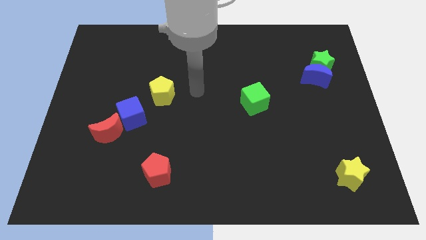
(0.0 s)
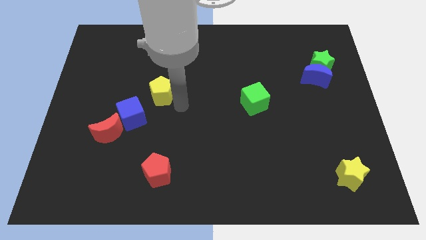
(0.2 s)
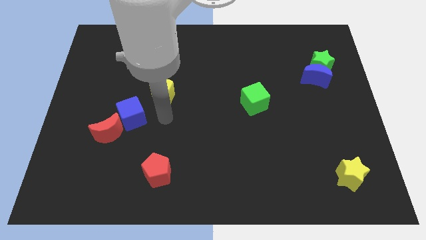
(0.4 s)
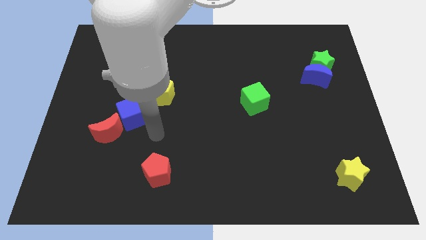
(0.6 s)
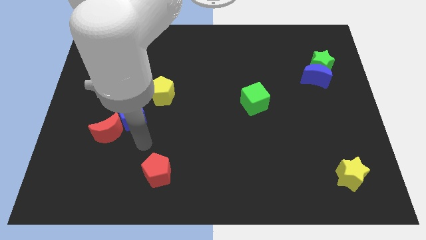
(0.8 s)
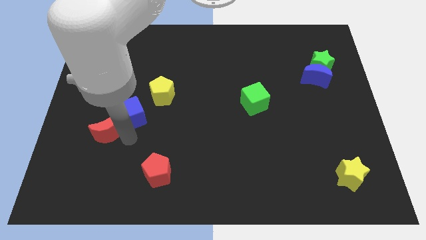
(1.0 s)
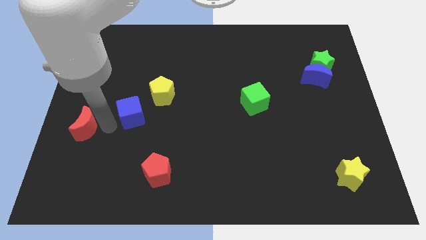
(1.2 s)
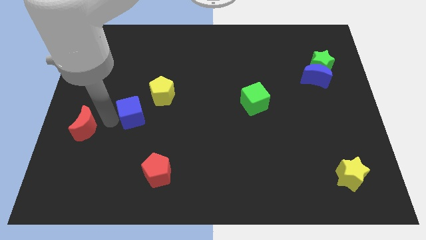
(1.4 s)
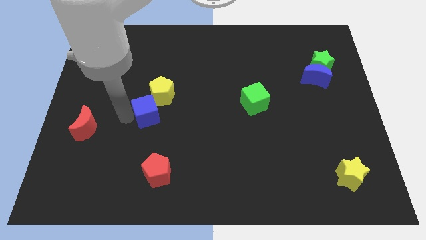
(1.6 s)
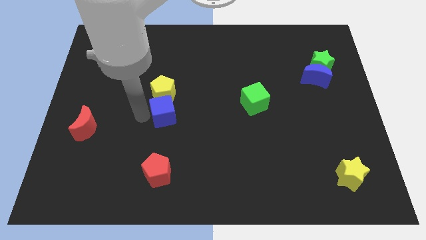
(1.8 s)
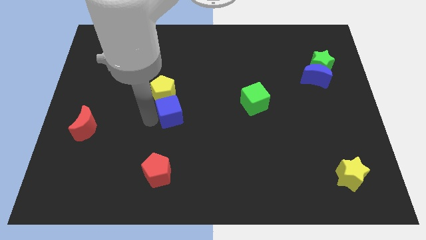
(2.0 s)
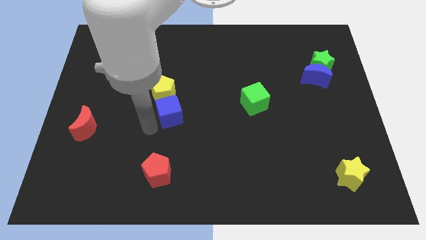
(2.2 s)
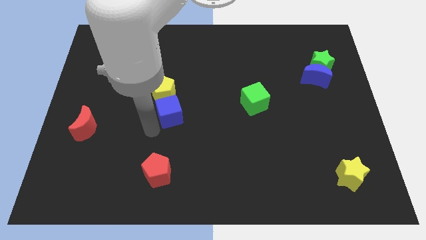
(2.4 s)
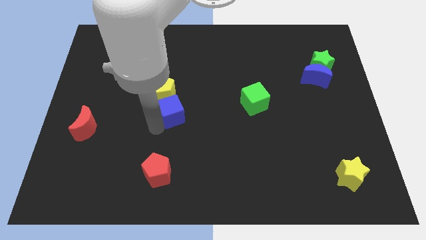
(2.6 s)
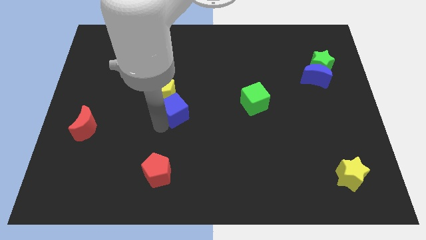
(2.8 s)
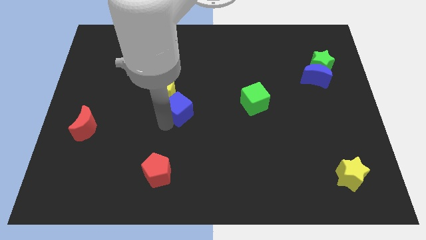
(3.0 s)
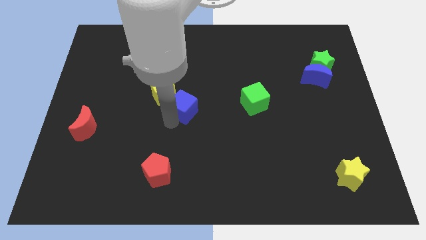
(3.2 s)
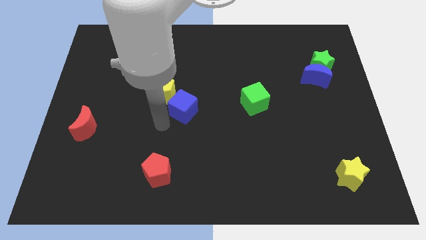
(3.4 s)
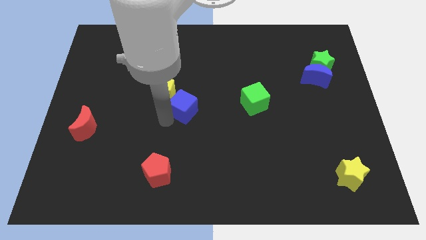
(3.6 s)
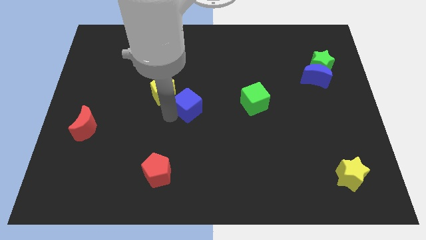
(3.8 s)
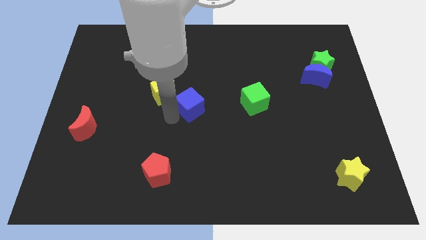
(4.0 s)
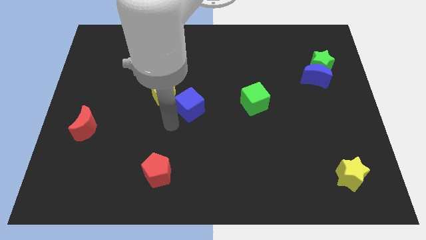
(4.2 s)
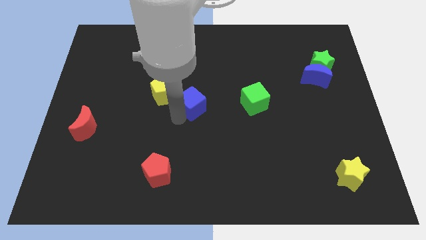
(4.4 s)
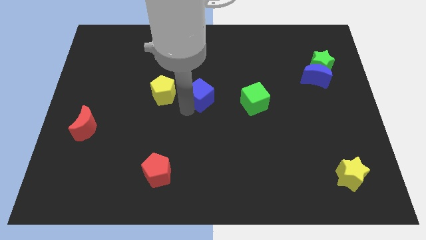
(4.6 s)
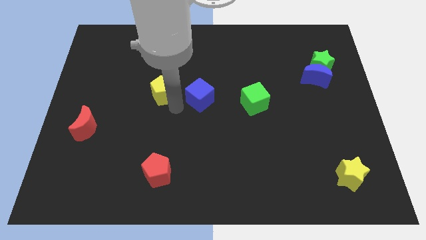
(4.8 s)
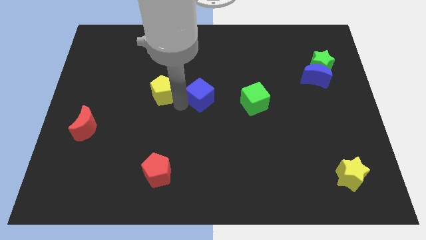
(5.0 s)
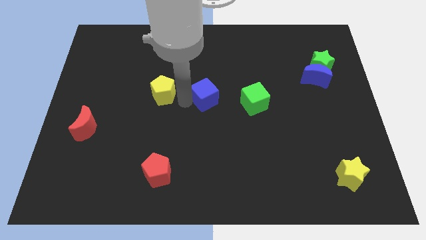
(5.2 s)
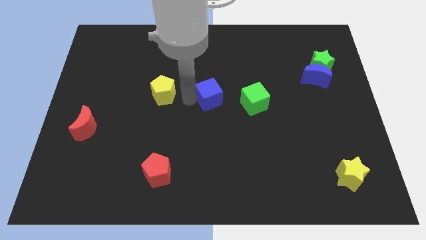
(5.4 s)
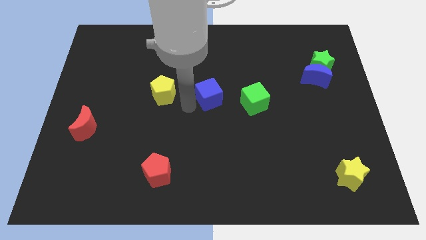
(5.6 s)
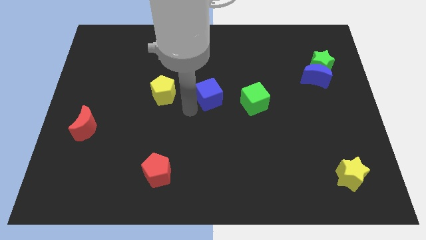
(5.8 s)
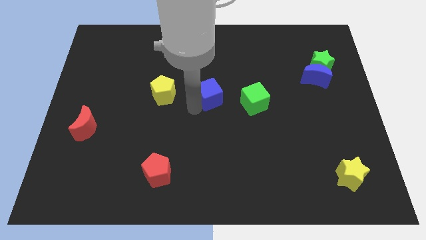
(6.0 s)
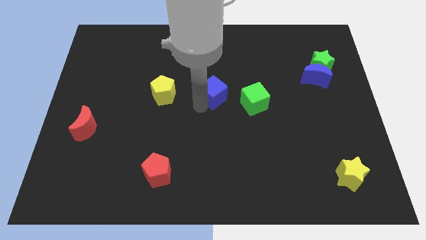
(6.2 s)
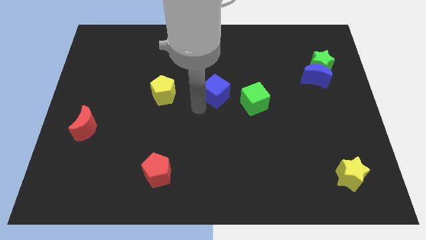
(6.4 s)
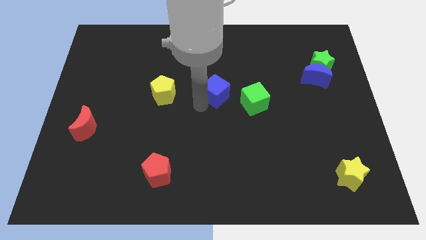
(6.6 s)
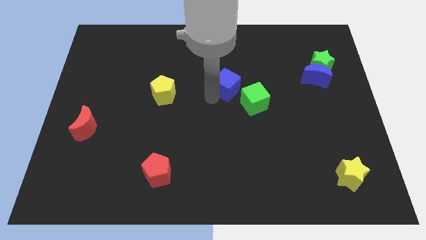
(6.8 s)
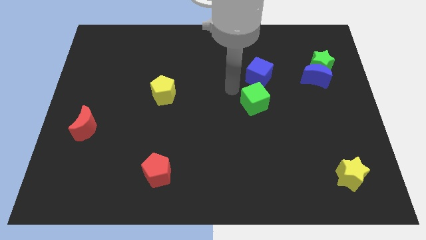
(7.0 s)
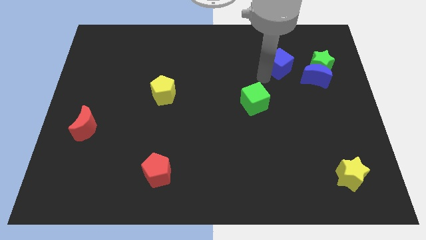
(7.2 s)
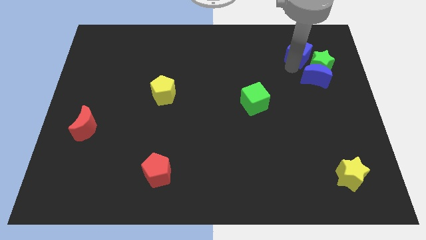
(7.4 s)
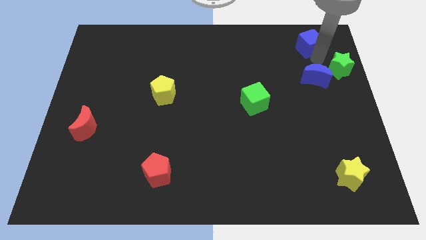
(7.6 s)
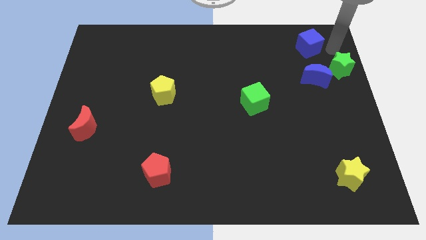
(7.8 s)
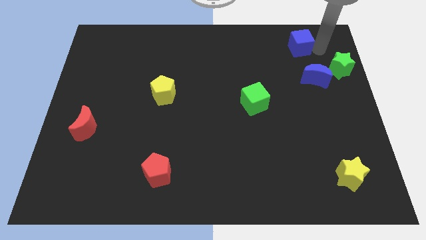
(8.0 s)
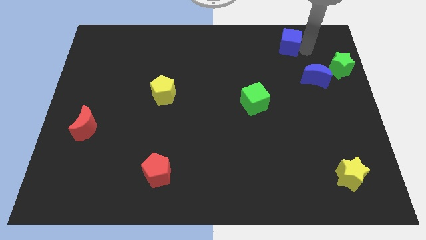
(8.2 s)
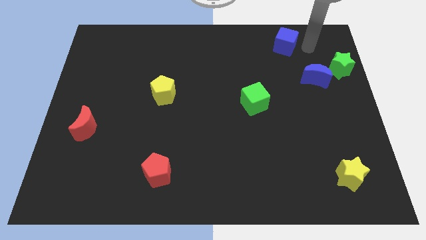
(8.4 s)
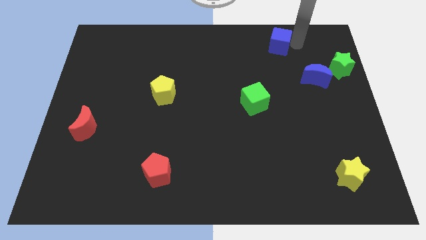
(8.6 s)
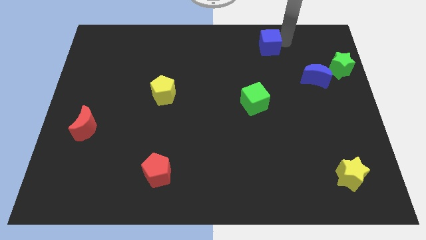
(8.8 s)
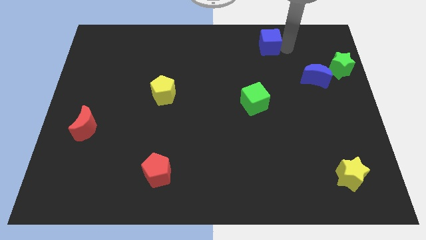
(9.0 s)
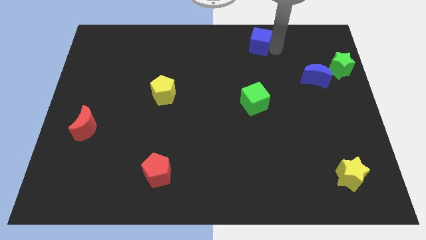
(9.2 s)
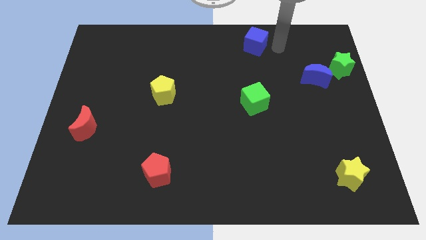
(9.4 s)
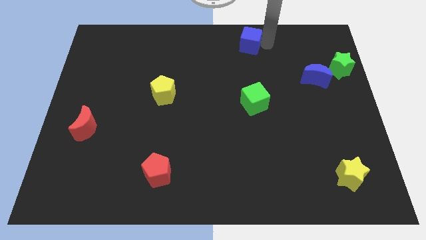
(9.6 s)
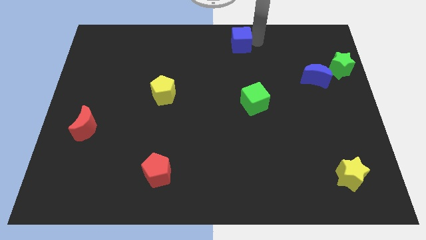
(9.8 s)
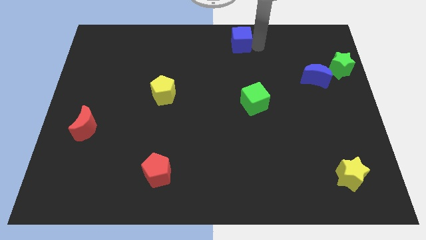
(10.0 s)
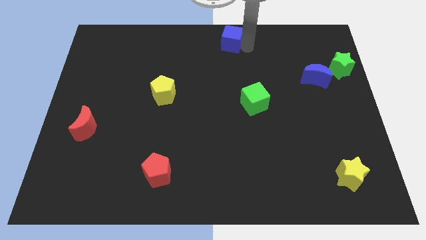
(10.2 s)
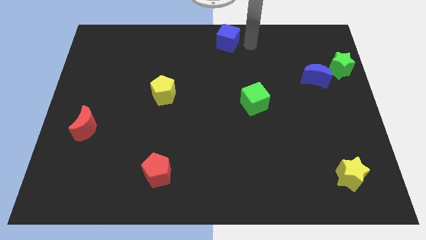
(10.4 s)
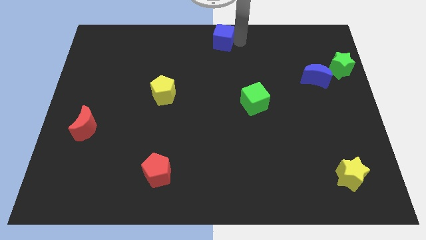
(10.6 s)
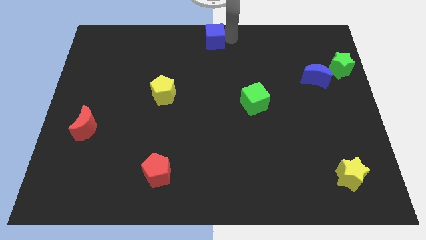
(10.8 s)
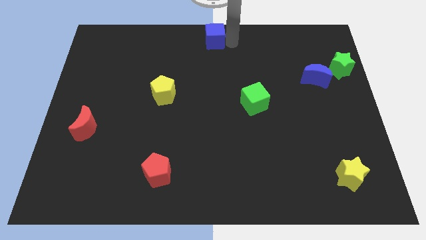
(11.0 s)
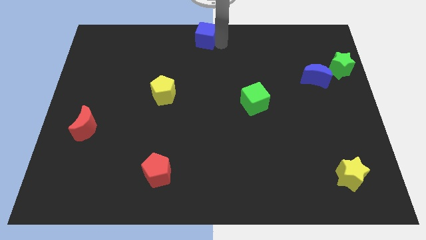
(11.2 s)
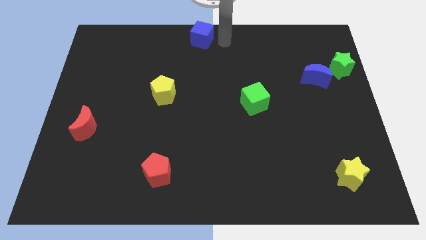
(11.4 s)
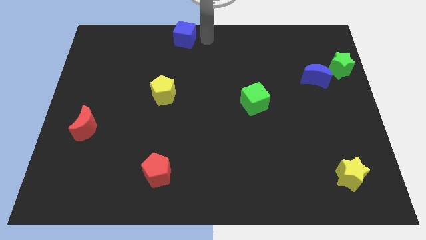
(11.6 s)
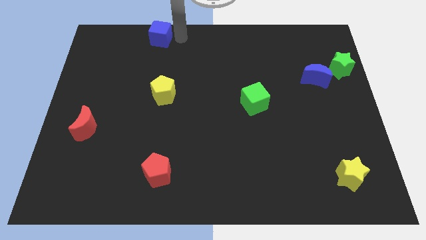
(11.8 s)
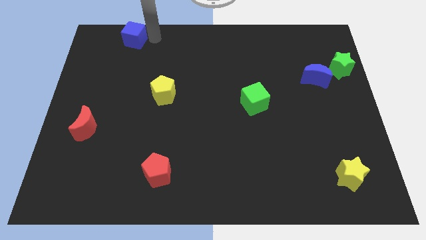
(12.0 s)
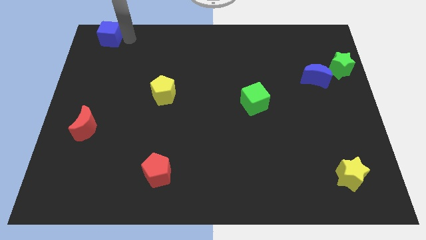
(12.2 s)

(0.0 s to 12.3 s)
push the blue cube to the upper left corner
